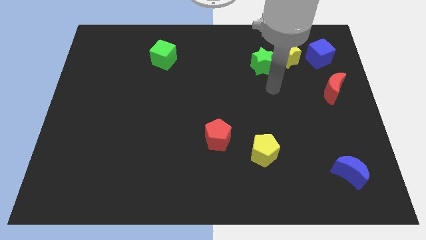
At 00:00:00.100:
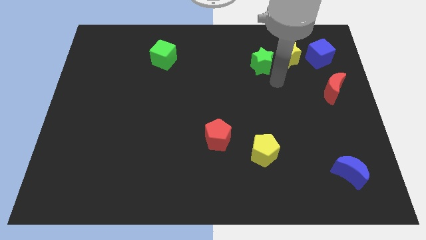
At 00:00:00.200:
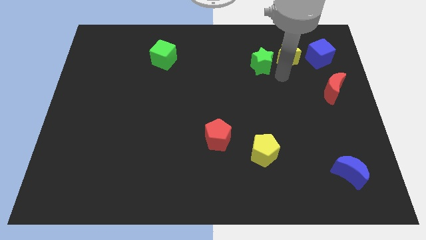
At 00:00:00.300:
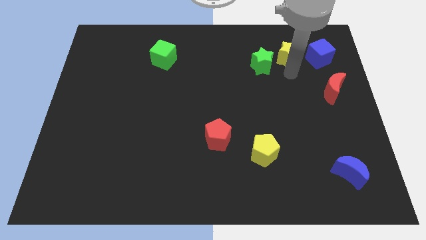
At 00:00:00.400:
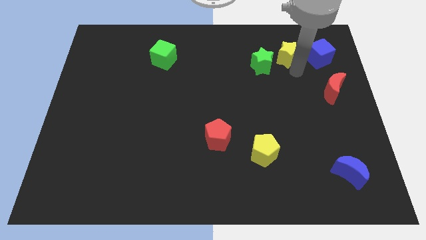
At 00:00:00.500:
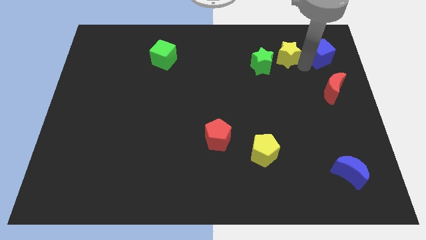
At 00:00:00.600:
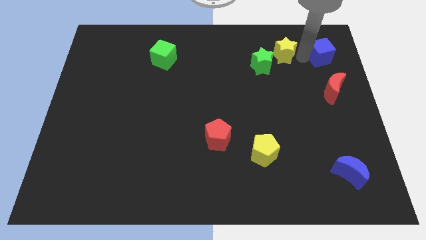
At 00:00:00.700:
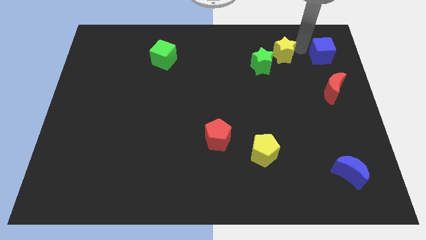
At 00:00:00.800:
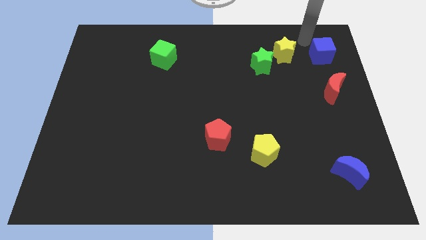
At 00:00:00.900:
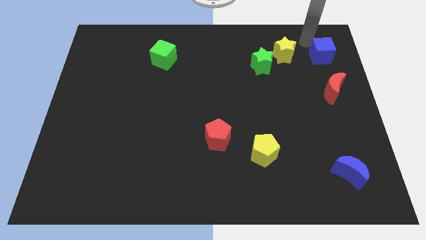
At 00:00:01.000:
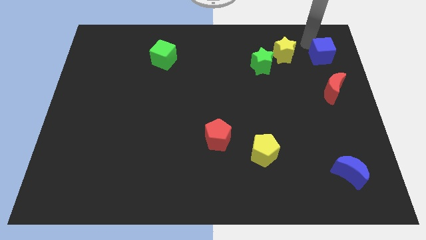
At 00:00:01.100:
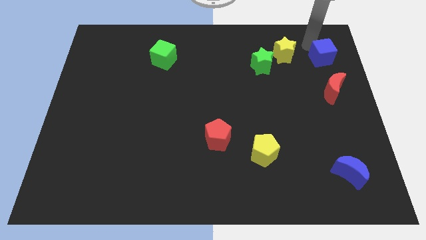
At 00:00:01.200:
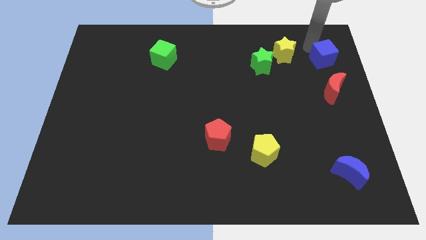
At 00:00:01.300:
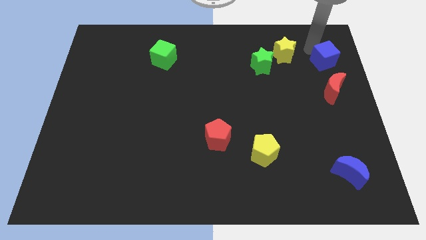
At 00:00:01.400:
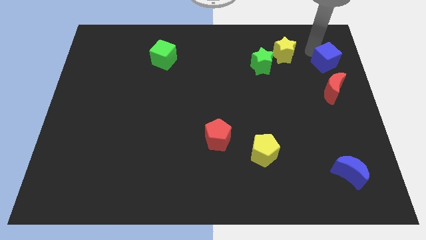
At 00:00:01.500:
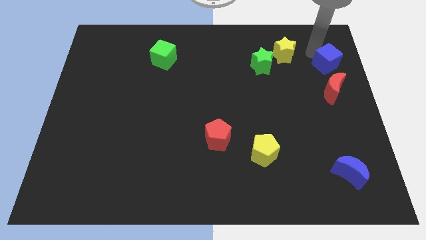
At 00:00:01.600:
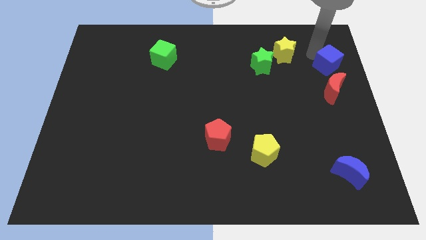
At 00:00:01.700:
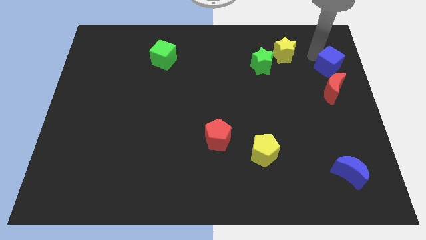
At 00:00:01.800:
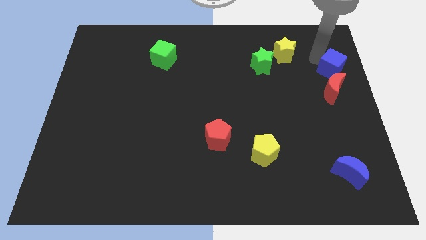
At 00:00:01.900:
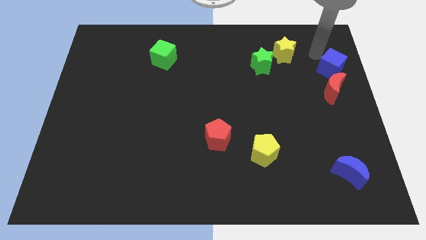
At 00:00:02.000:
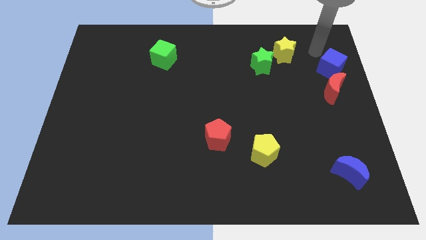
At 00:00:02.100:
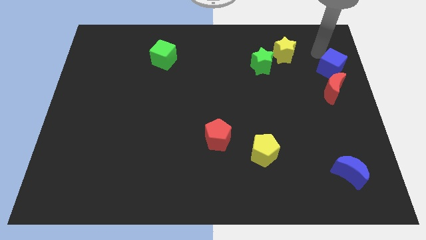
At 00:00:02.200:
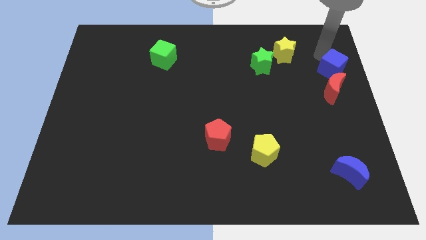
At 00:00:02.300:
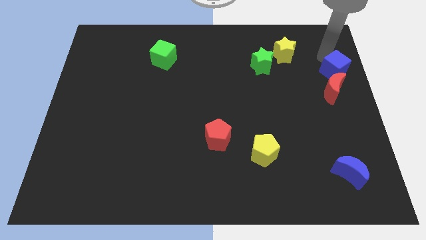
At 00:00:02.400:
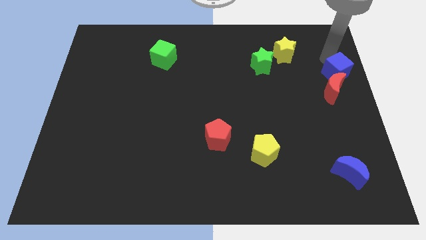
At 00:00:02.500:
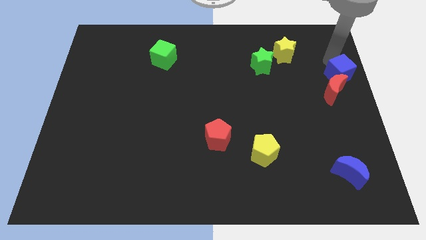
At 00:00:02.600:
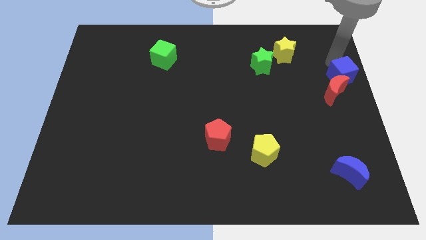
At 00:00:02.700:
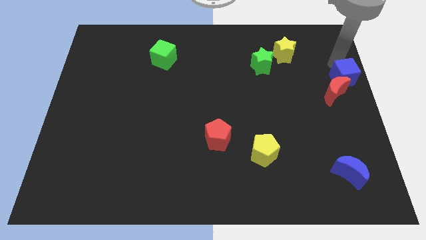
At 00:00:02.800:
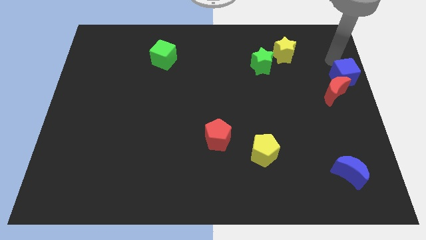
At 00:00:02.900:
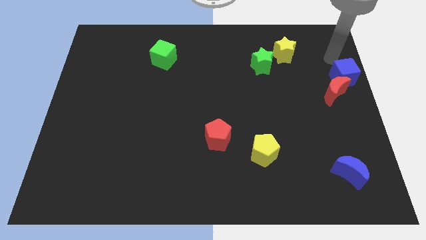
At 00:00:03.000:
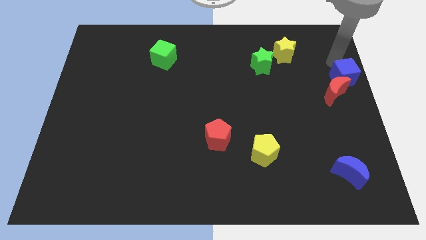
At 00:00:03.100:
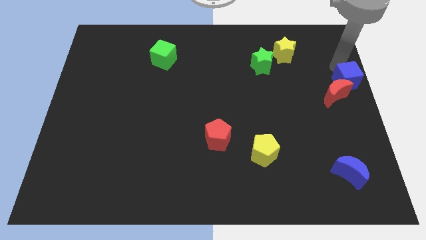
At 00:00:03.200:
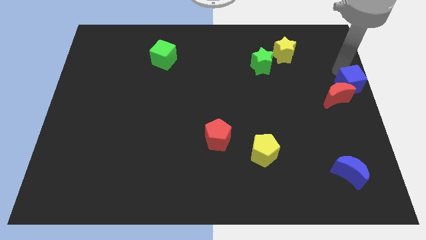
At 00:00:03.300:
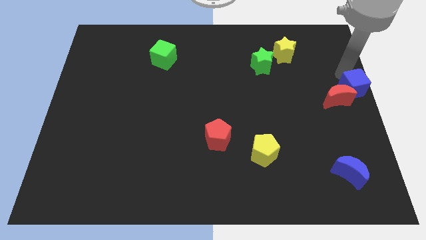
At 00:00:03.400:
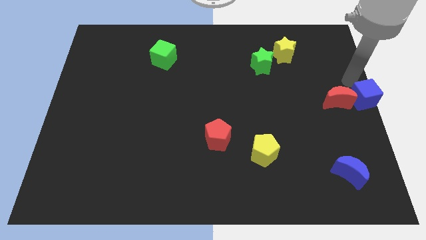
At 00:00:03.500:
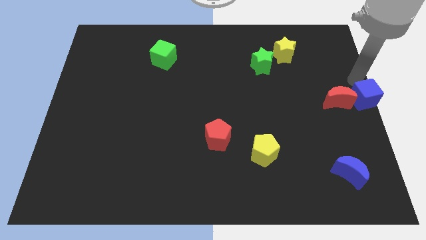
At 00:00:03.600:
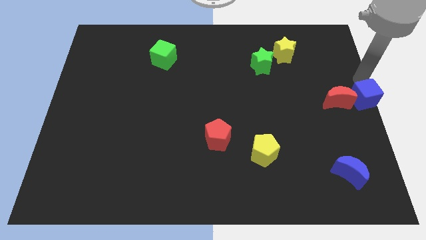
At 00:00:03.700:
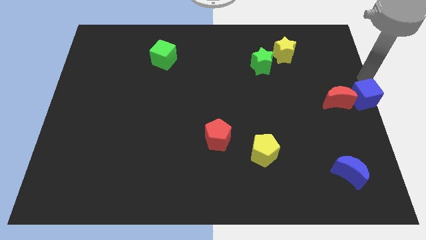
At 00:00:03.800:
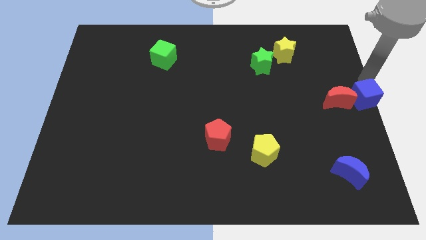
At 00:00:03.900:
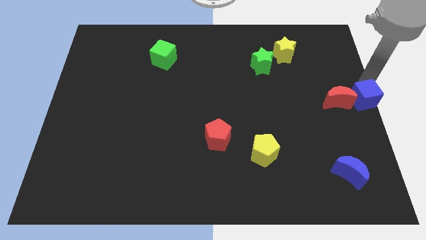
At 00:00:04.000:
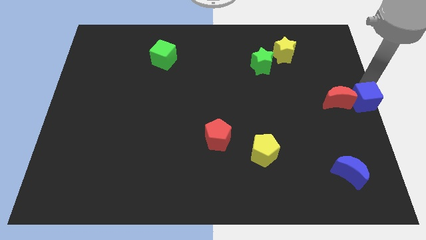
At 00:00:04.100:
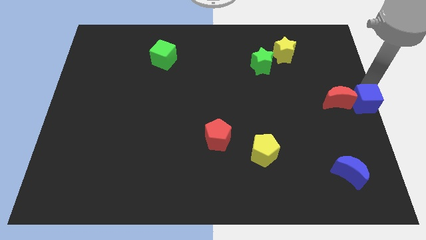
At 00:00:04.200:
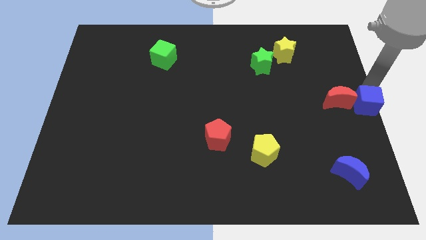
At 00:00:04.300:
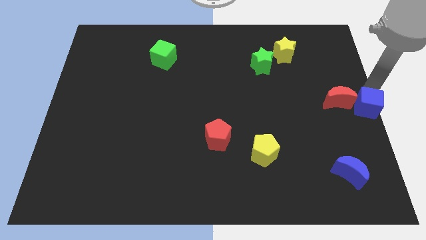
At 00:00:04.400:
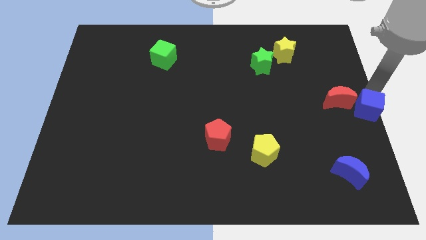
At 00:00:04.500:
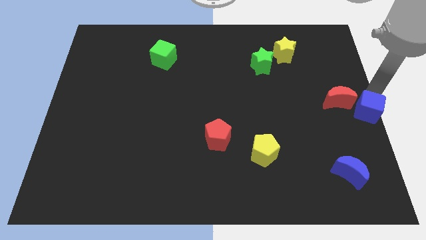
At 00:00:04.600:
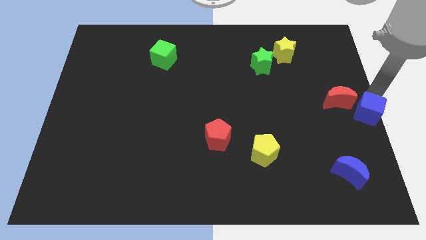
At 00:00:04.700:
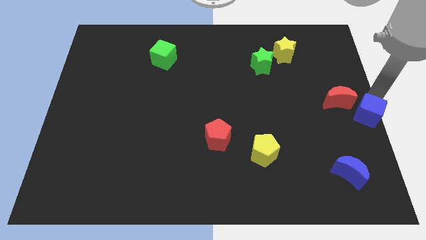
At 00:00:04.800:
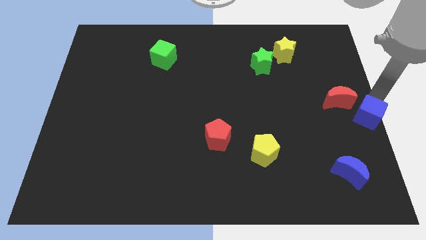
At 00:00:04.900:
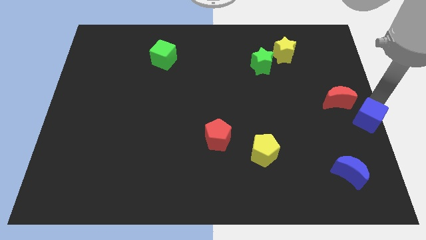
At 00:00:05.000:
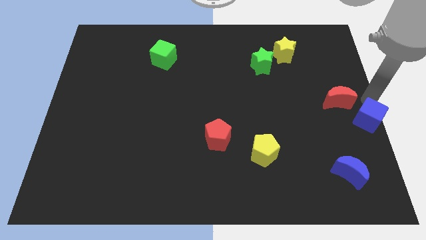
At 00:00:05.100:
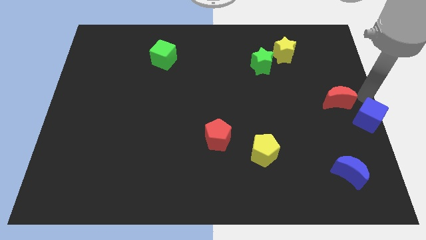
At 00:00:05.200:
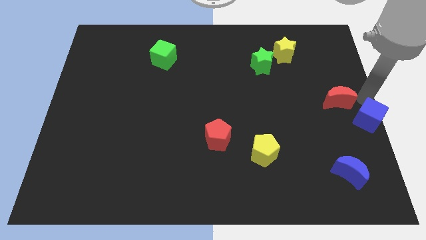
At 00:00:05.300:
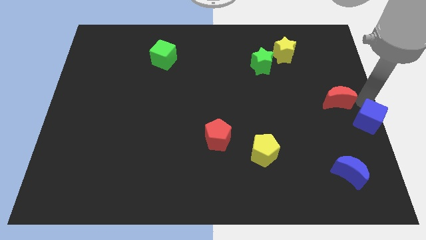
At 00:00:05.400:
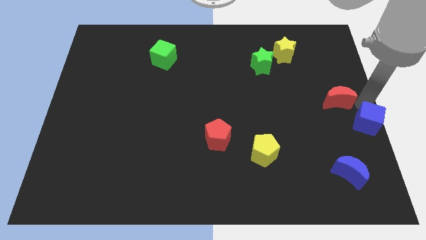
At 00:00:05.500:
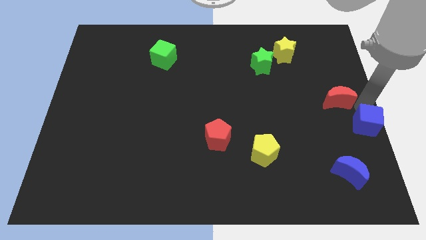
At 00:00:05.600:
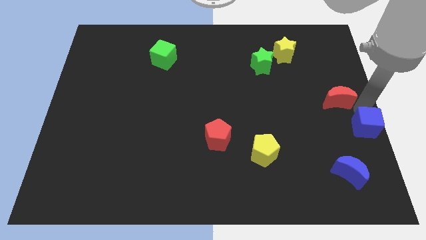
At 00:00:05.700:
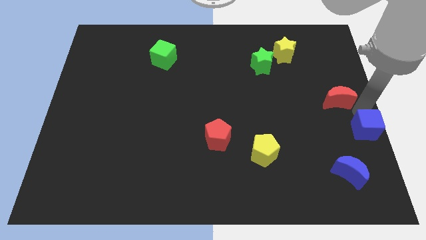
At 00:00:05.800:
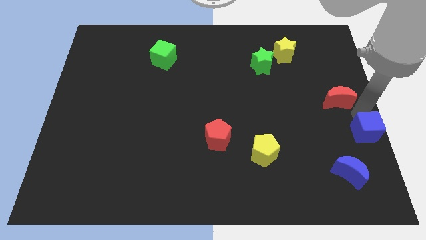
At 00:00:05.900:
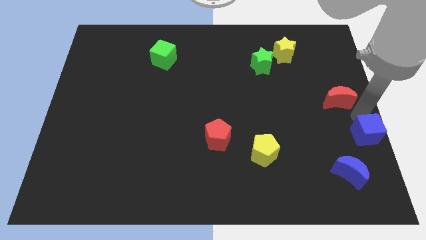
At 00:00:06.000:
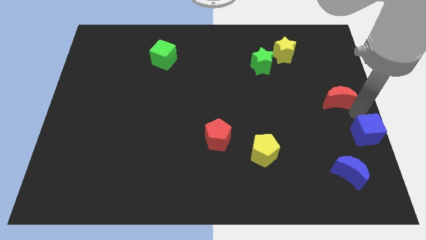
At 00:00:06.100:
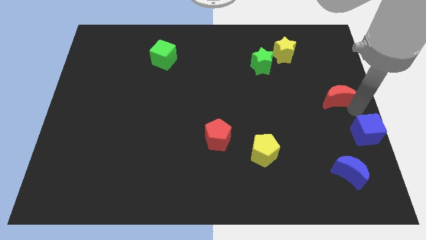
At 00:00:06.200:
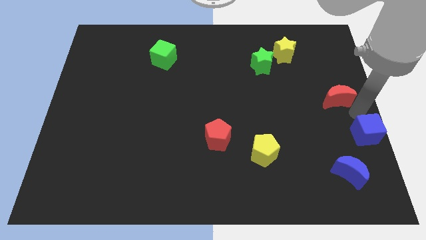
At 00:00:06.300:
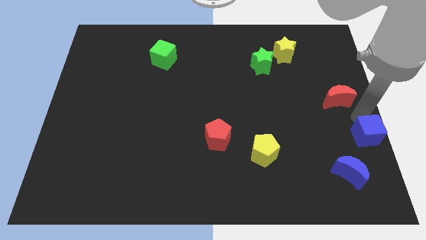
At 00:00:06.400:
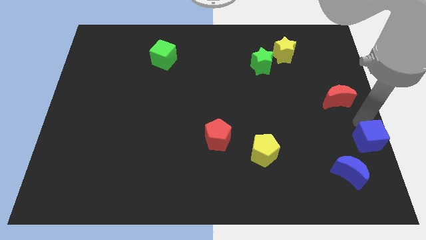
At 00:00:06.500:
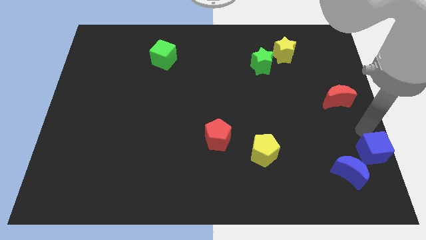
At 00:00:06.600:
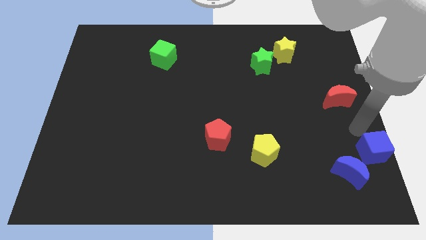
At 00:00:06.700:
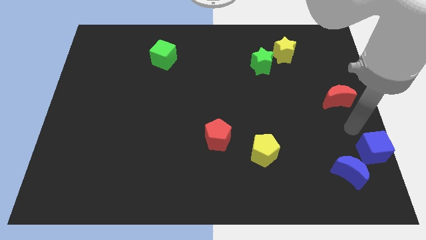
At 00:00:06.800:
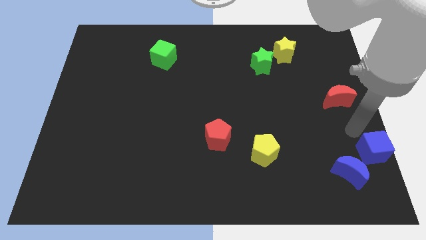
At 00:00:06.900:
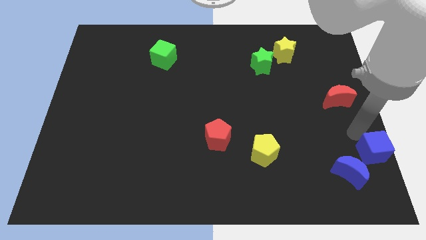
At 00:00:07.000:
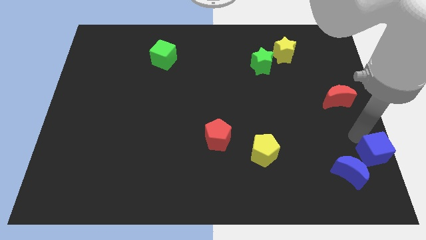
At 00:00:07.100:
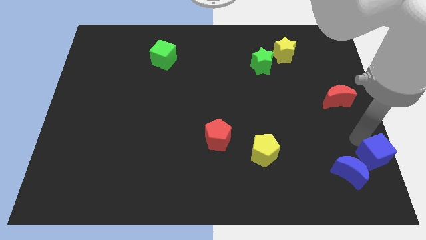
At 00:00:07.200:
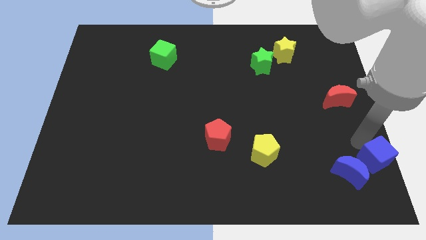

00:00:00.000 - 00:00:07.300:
push the blue cube to the bottom right corner

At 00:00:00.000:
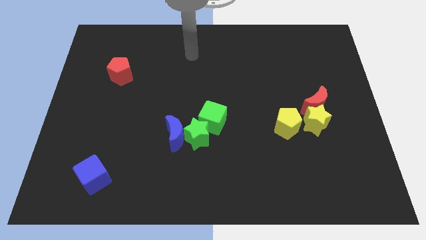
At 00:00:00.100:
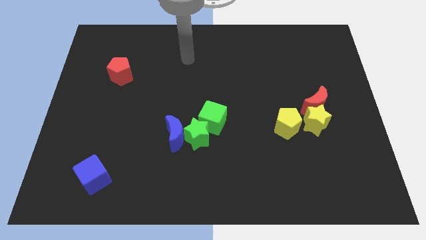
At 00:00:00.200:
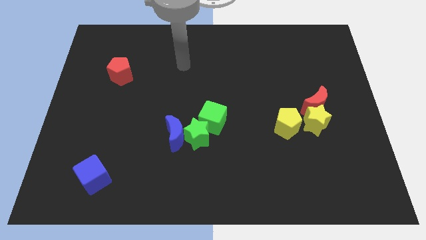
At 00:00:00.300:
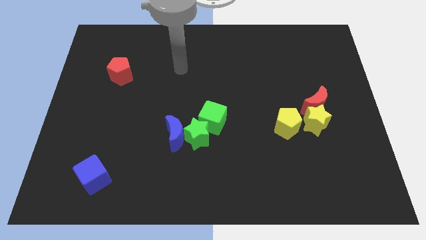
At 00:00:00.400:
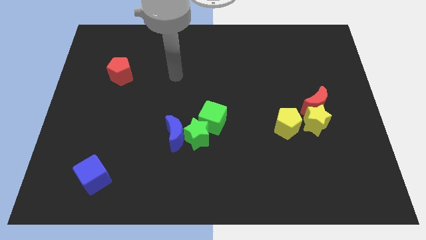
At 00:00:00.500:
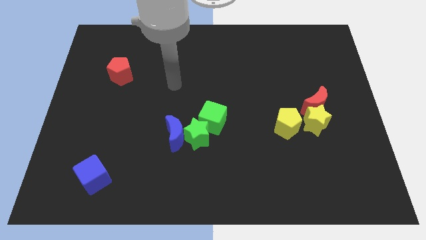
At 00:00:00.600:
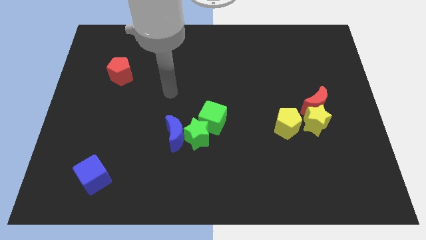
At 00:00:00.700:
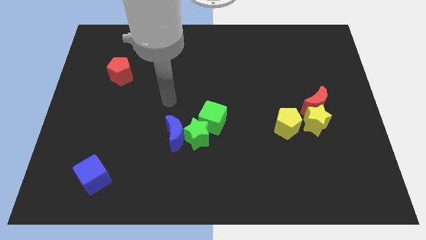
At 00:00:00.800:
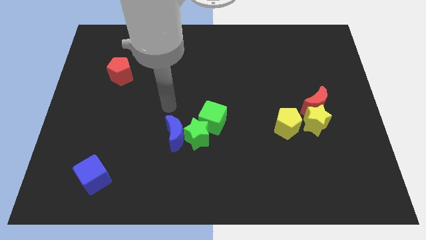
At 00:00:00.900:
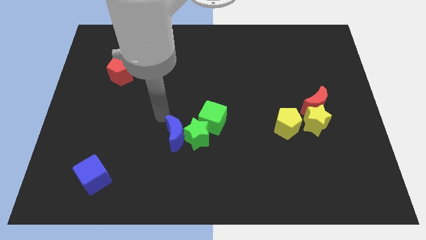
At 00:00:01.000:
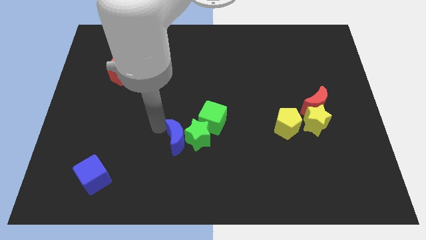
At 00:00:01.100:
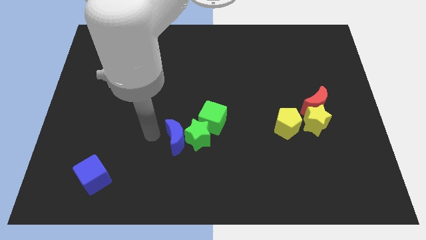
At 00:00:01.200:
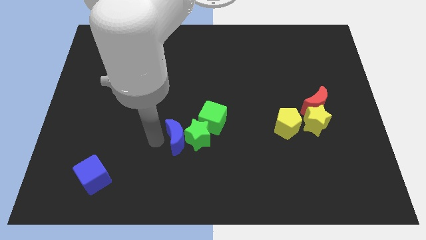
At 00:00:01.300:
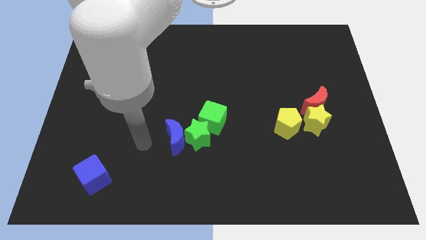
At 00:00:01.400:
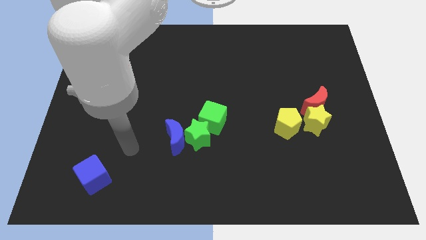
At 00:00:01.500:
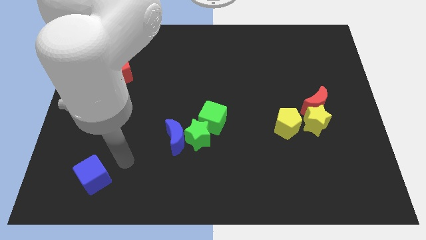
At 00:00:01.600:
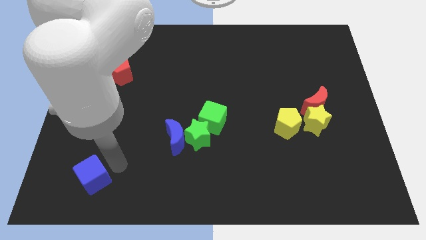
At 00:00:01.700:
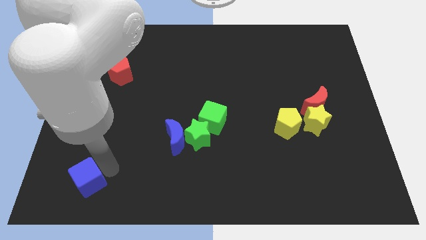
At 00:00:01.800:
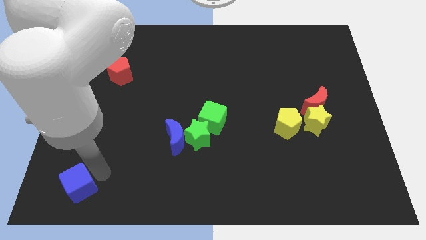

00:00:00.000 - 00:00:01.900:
slide the blue cube to the lower left corner
